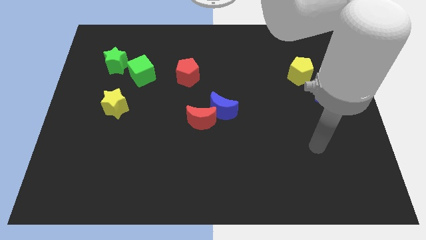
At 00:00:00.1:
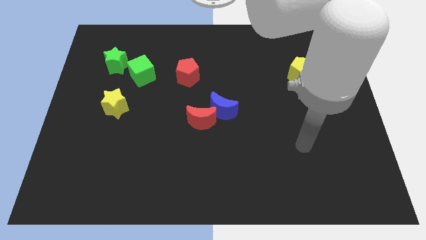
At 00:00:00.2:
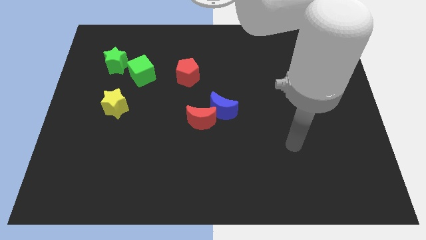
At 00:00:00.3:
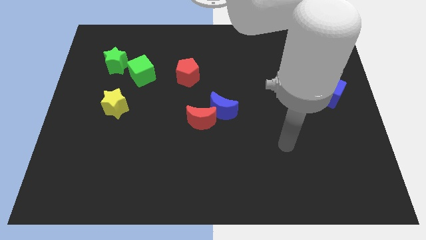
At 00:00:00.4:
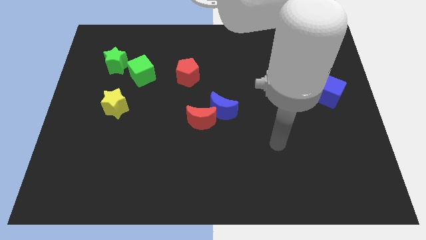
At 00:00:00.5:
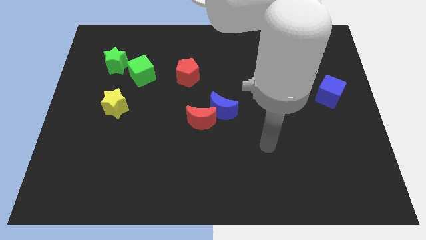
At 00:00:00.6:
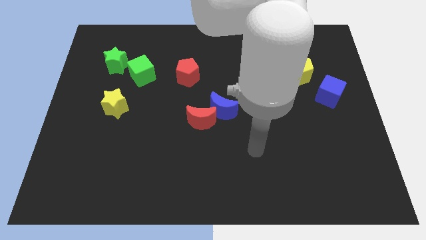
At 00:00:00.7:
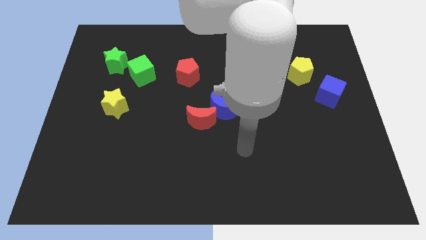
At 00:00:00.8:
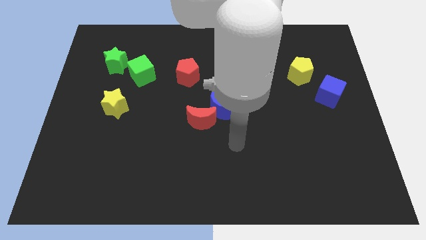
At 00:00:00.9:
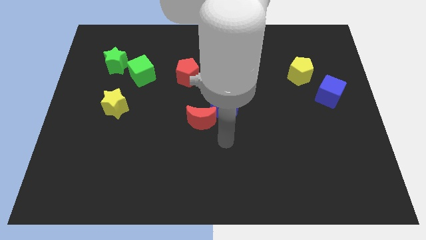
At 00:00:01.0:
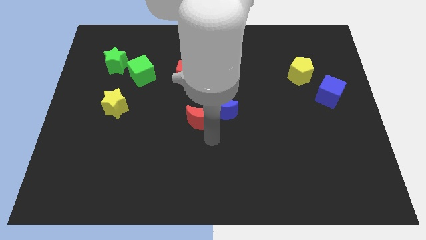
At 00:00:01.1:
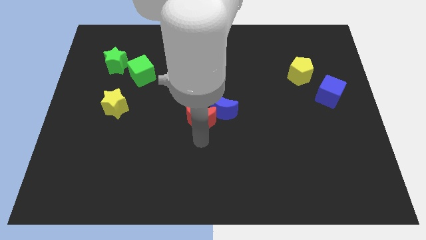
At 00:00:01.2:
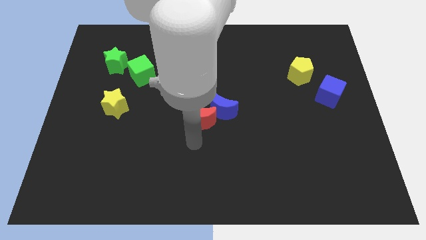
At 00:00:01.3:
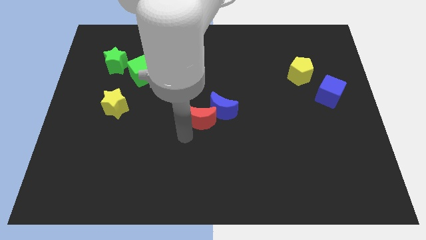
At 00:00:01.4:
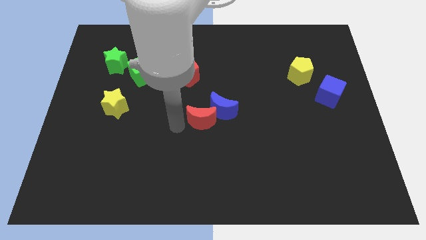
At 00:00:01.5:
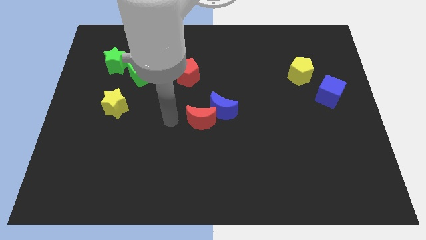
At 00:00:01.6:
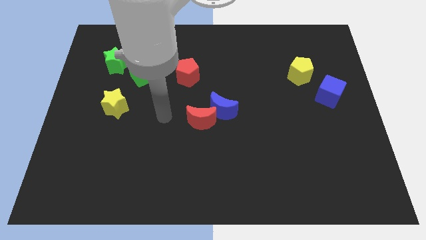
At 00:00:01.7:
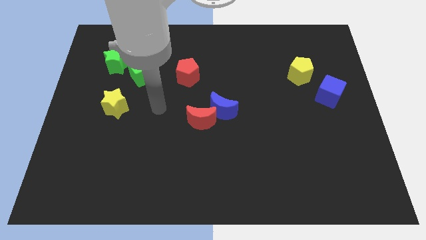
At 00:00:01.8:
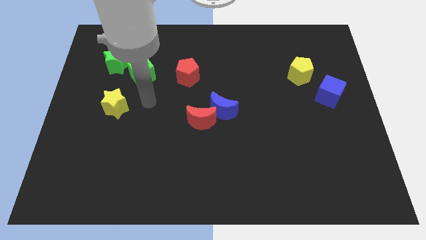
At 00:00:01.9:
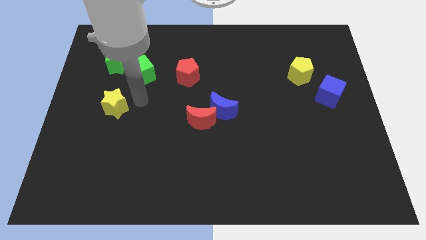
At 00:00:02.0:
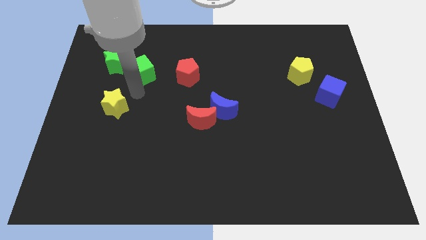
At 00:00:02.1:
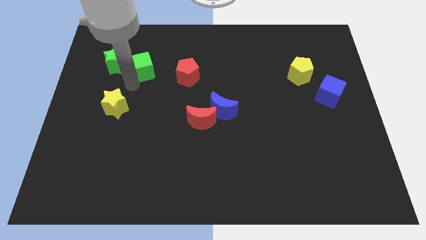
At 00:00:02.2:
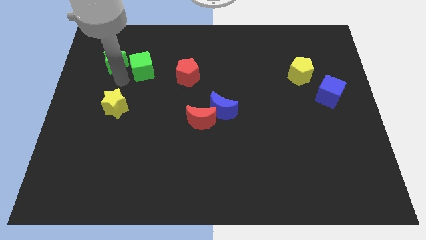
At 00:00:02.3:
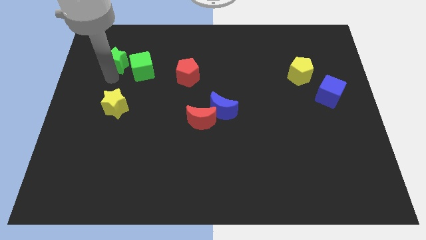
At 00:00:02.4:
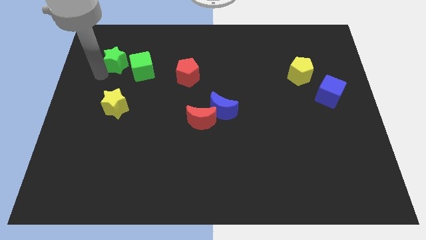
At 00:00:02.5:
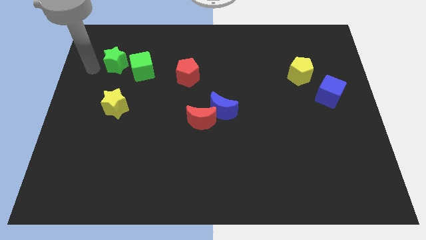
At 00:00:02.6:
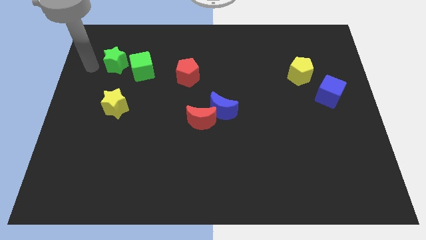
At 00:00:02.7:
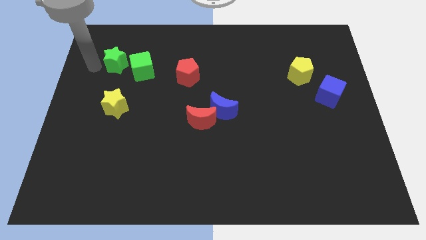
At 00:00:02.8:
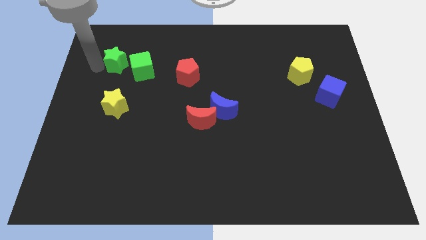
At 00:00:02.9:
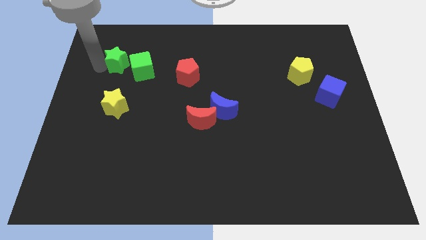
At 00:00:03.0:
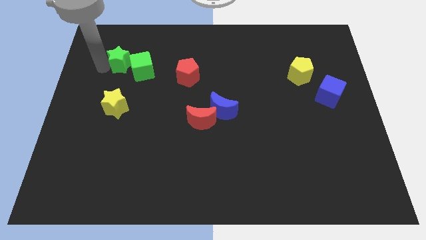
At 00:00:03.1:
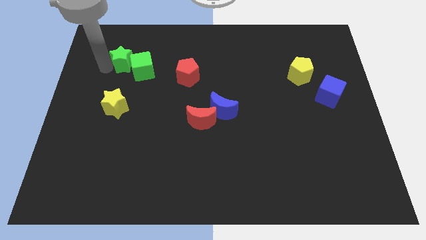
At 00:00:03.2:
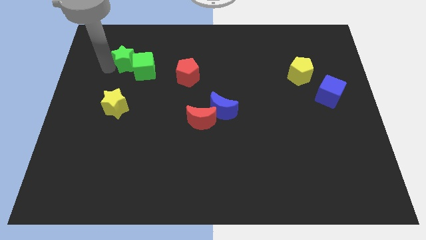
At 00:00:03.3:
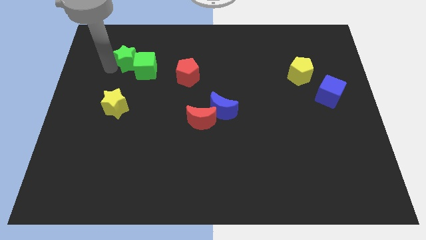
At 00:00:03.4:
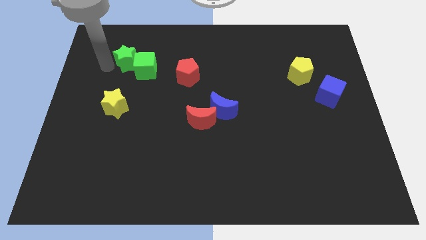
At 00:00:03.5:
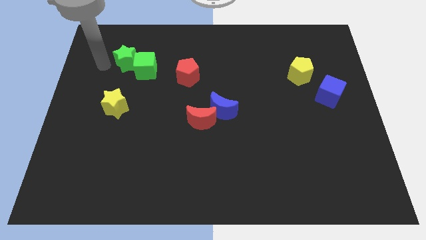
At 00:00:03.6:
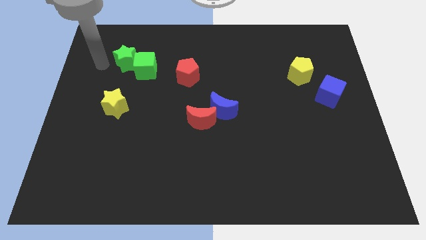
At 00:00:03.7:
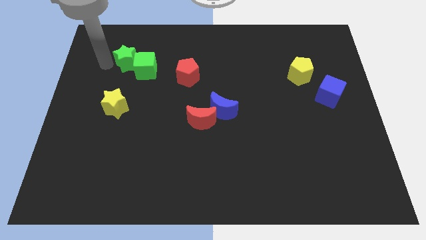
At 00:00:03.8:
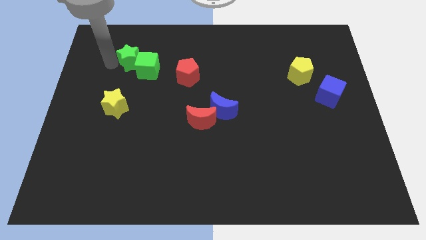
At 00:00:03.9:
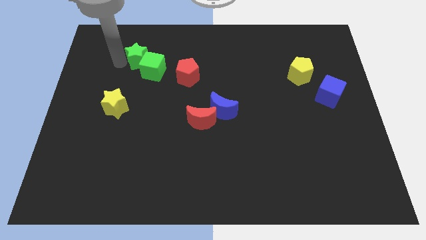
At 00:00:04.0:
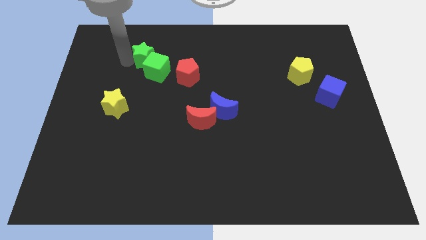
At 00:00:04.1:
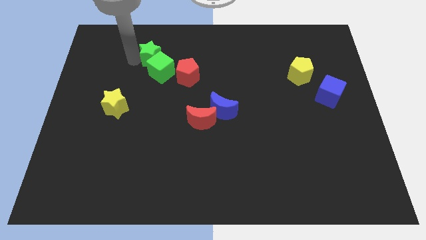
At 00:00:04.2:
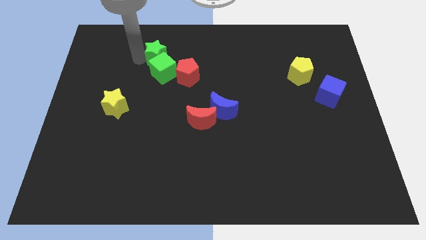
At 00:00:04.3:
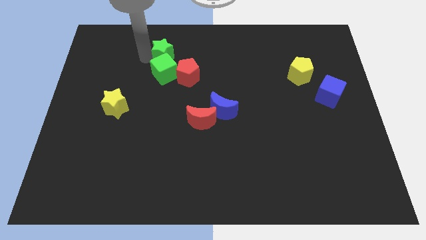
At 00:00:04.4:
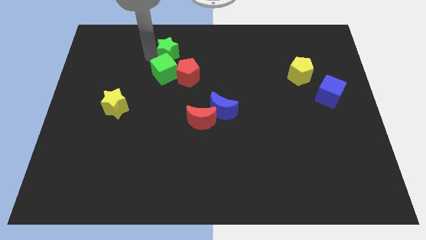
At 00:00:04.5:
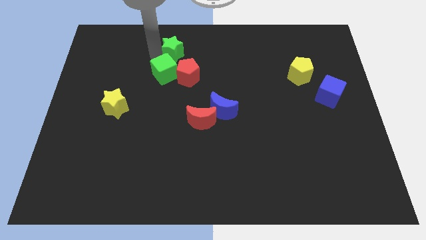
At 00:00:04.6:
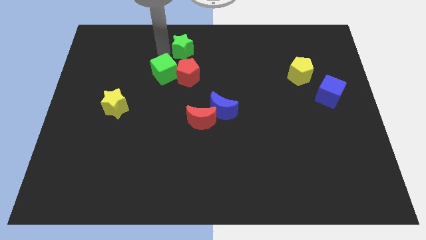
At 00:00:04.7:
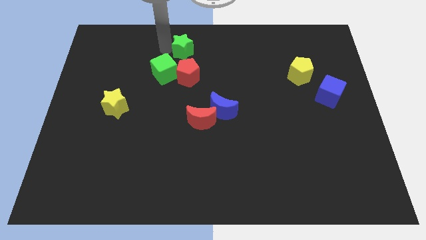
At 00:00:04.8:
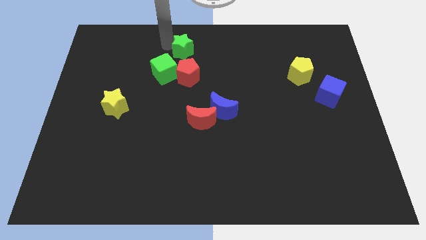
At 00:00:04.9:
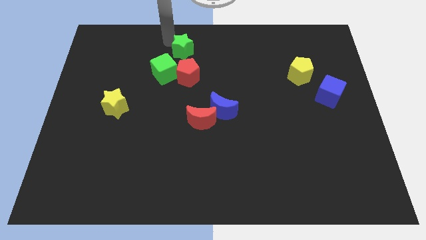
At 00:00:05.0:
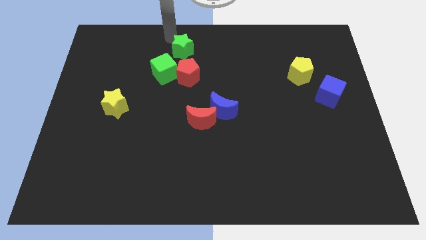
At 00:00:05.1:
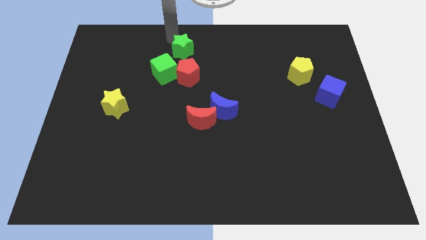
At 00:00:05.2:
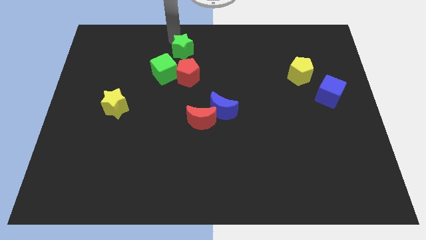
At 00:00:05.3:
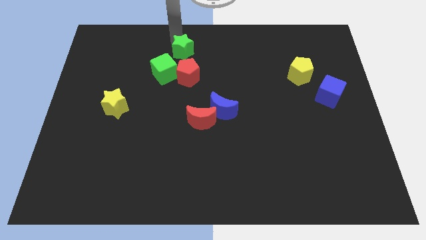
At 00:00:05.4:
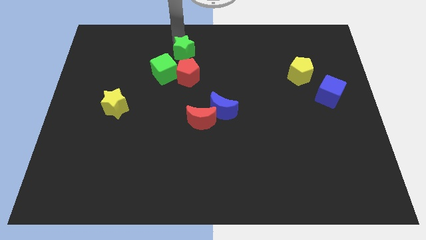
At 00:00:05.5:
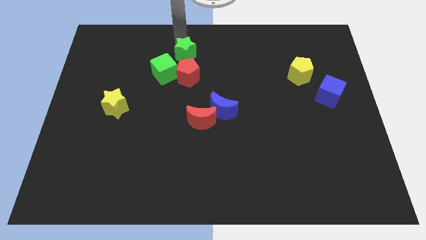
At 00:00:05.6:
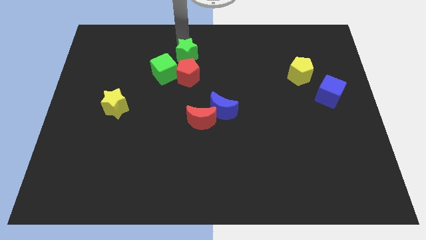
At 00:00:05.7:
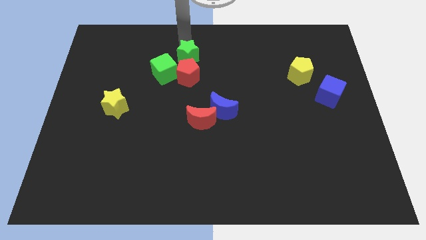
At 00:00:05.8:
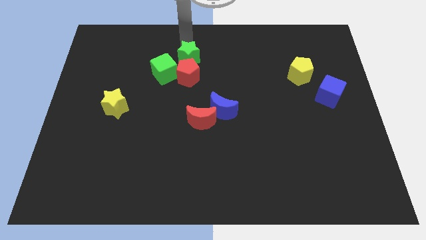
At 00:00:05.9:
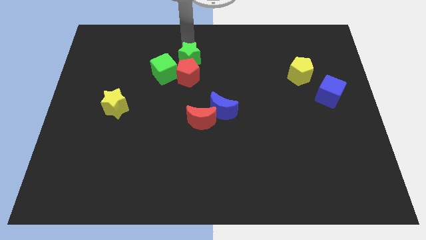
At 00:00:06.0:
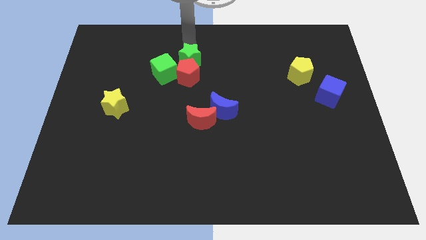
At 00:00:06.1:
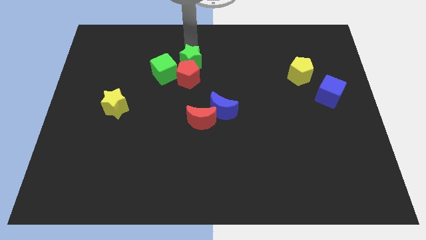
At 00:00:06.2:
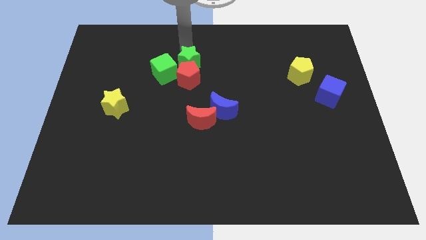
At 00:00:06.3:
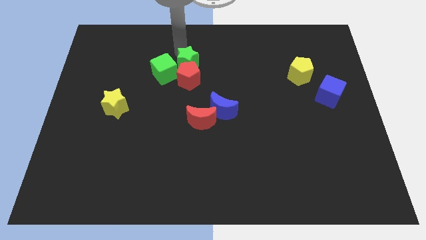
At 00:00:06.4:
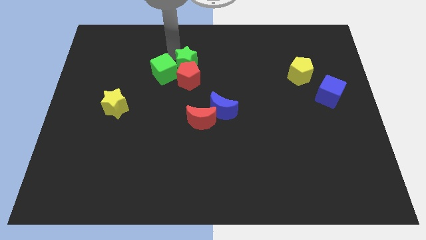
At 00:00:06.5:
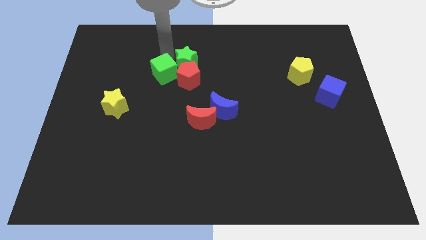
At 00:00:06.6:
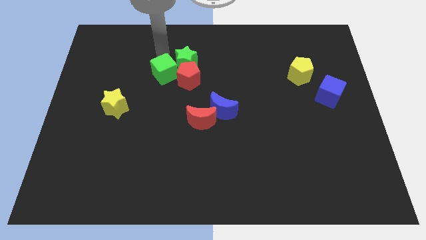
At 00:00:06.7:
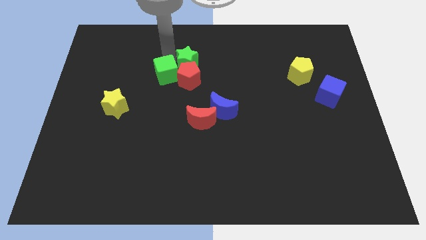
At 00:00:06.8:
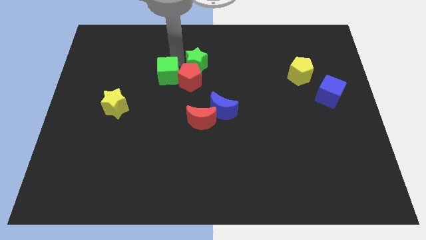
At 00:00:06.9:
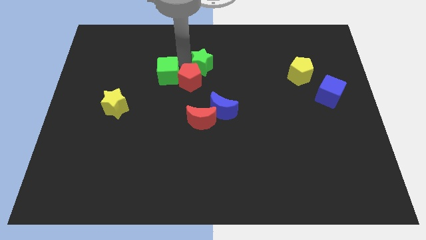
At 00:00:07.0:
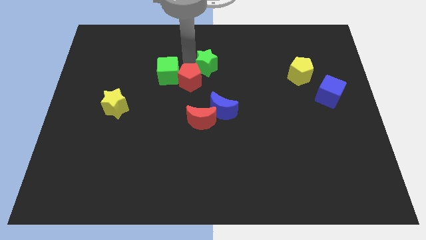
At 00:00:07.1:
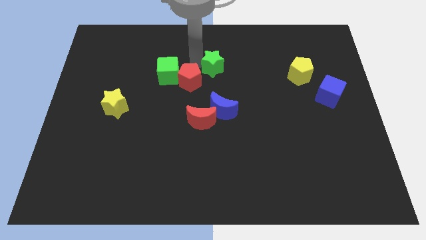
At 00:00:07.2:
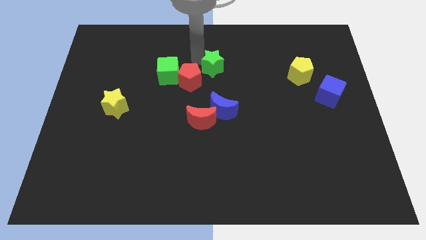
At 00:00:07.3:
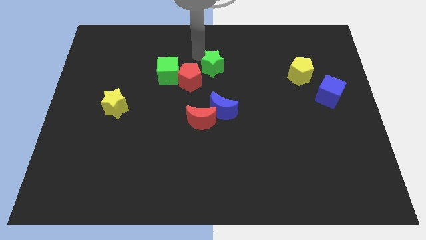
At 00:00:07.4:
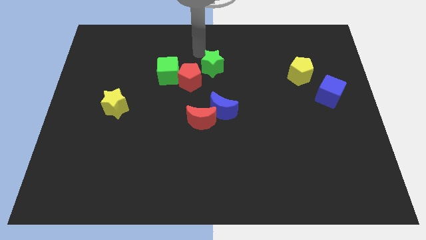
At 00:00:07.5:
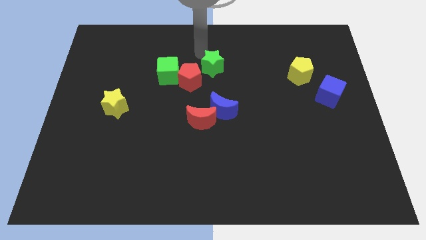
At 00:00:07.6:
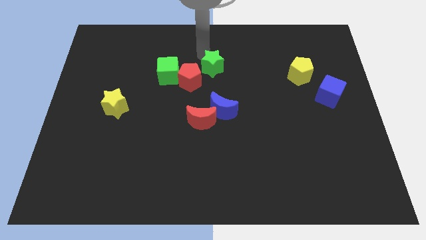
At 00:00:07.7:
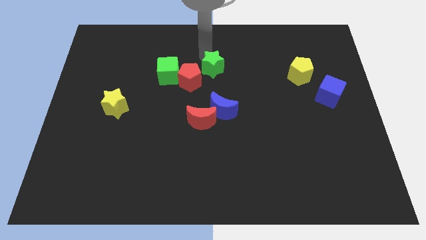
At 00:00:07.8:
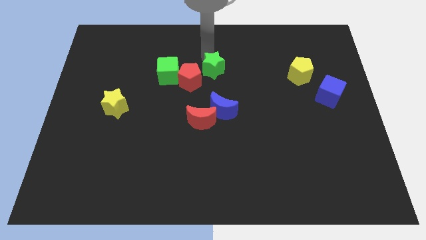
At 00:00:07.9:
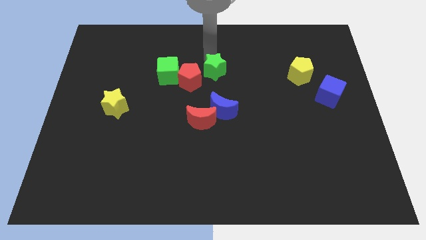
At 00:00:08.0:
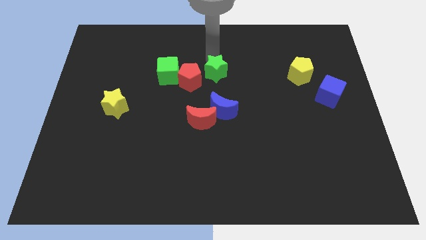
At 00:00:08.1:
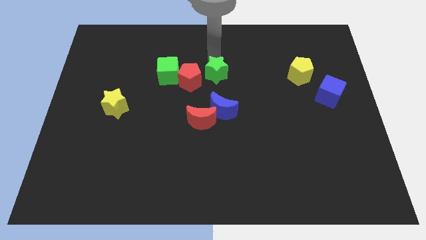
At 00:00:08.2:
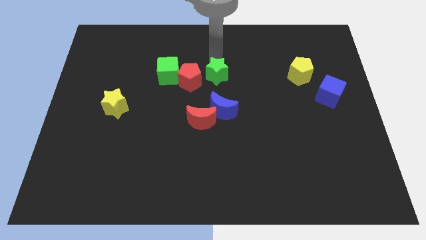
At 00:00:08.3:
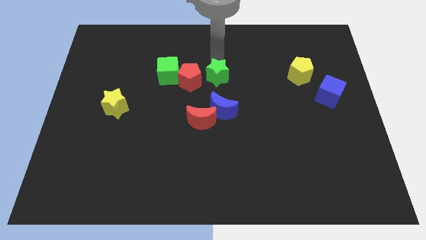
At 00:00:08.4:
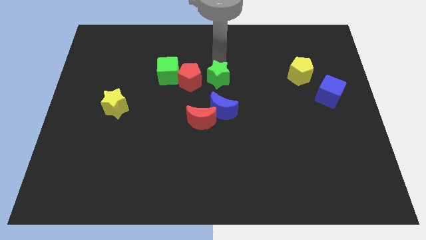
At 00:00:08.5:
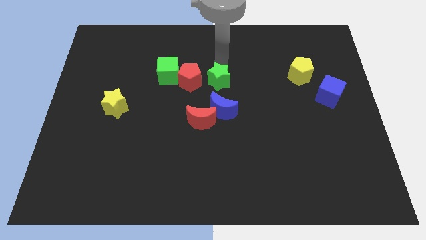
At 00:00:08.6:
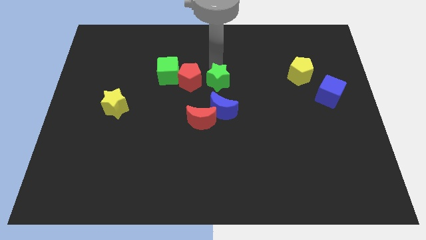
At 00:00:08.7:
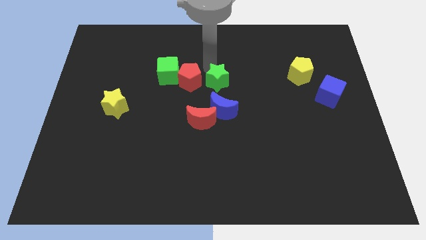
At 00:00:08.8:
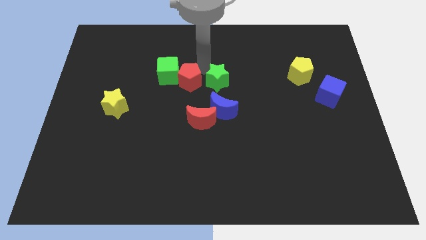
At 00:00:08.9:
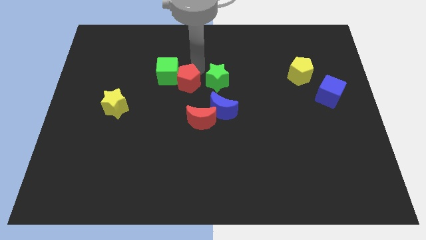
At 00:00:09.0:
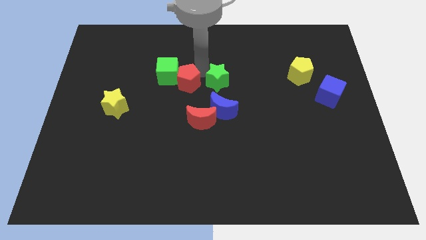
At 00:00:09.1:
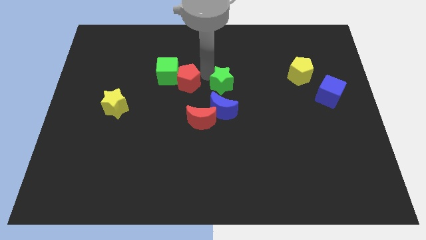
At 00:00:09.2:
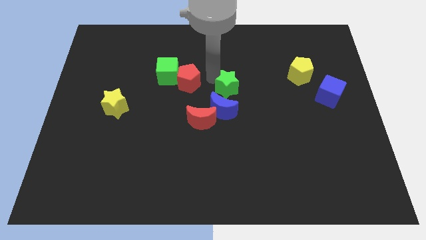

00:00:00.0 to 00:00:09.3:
slide the green star to the top right of the blue moon
